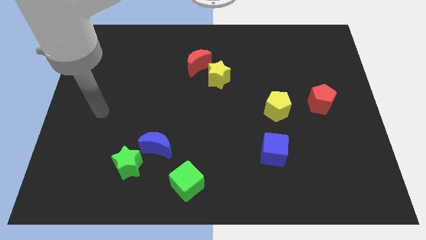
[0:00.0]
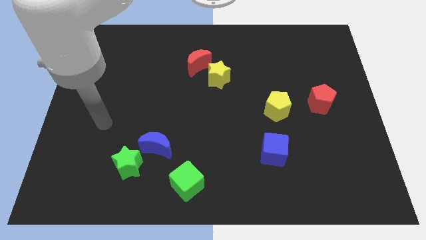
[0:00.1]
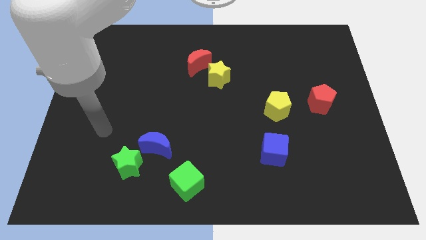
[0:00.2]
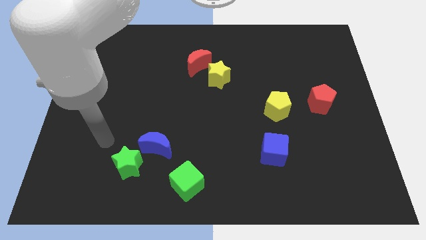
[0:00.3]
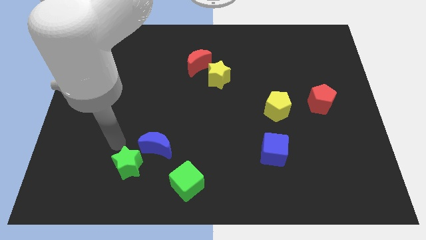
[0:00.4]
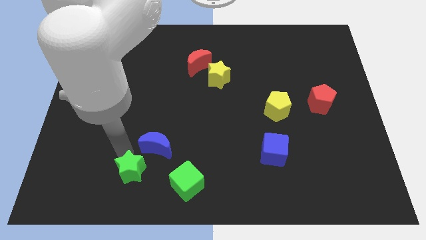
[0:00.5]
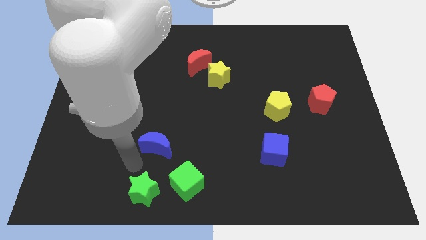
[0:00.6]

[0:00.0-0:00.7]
move the blue moon away from the green star

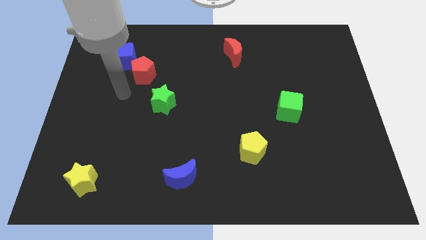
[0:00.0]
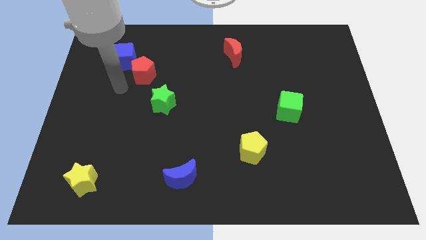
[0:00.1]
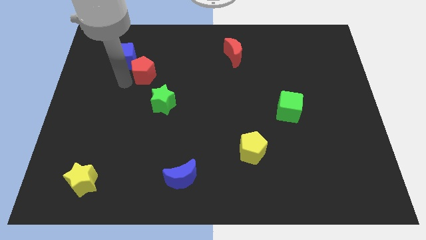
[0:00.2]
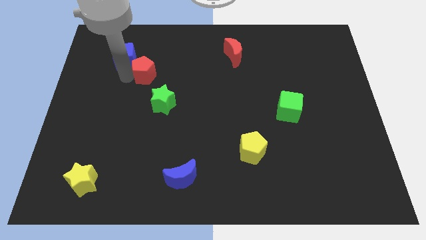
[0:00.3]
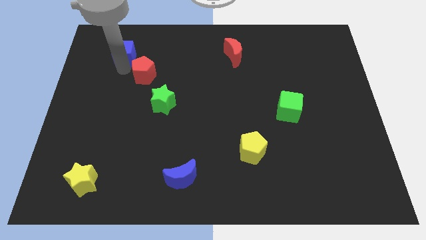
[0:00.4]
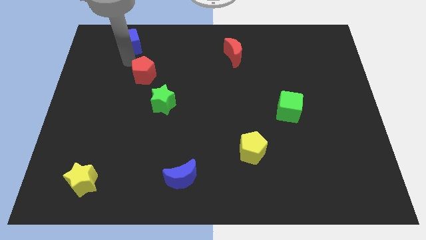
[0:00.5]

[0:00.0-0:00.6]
pull the red pentagon apart from the blue cube

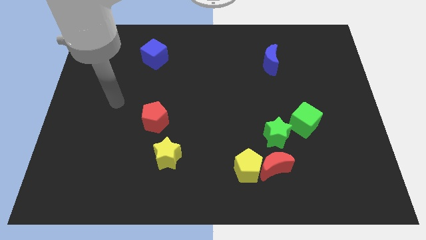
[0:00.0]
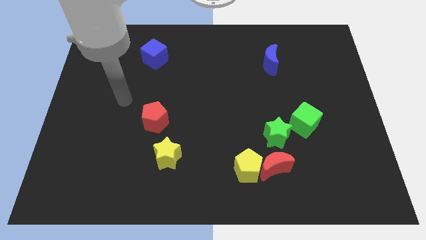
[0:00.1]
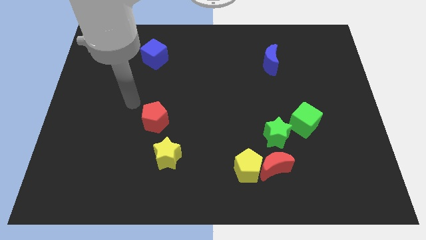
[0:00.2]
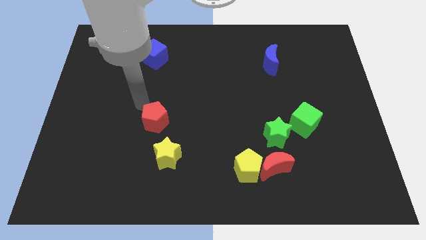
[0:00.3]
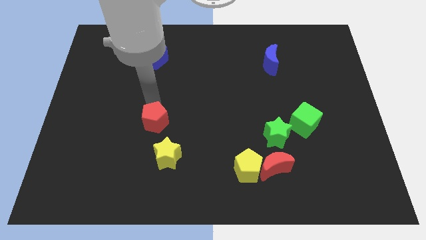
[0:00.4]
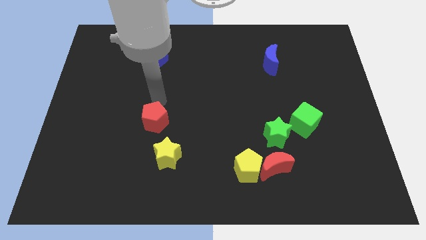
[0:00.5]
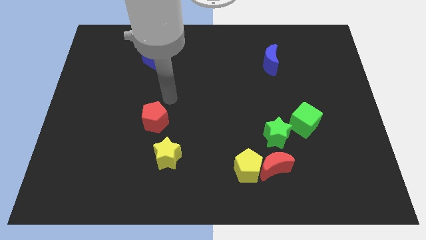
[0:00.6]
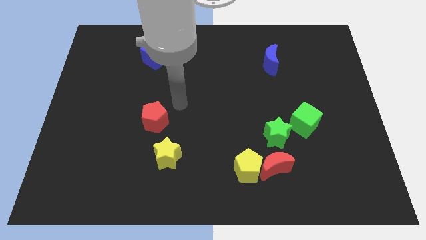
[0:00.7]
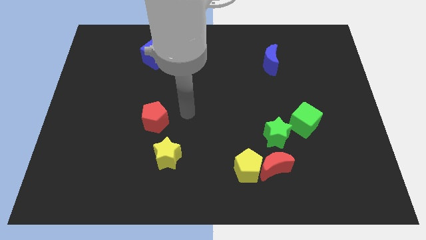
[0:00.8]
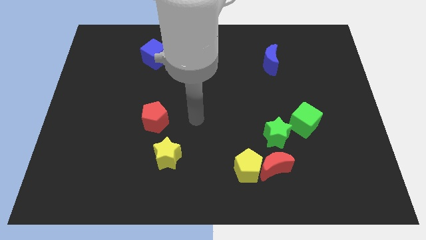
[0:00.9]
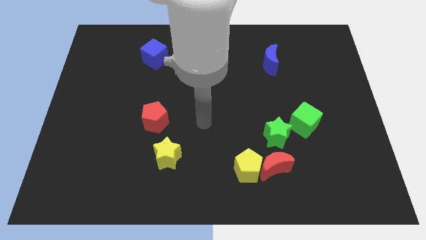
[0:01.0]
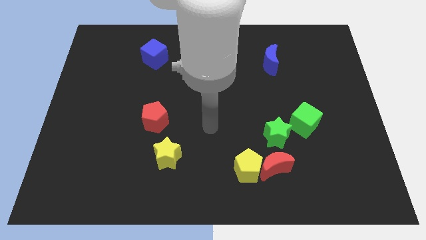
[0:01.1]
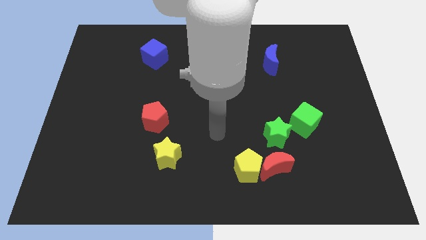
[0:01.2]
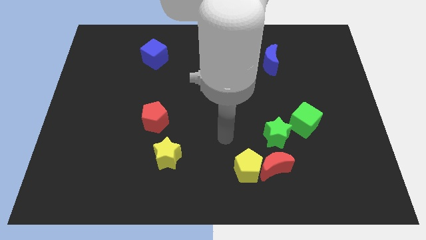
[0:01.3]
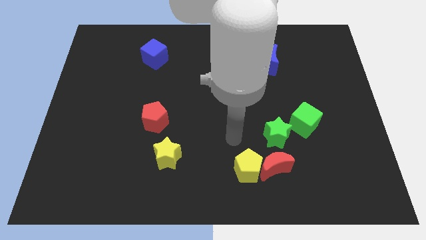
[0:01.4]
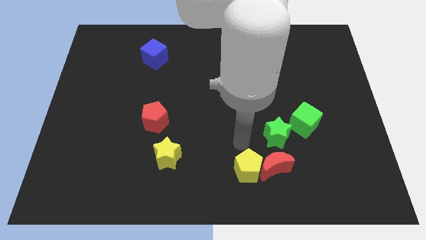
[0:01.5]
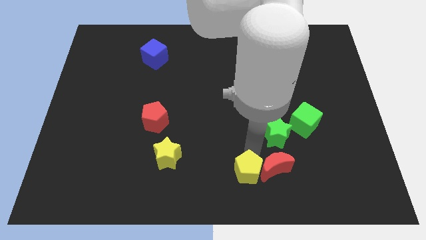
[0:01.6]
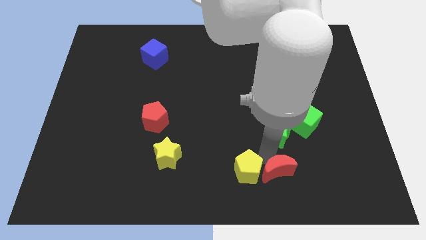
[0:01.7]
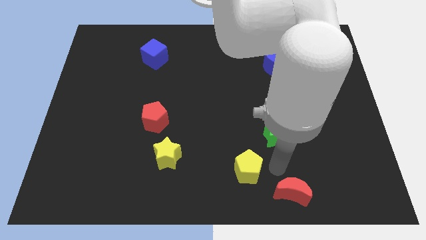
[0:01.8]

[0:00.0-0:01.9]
pull the yellow pentagon apart from the red moon

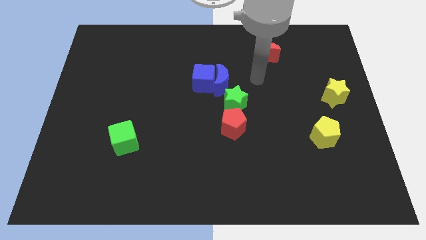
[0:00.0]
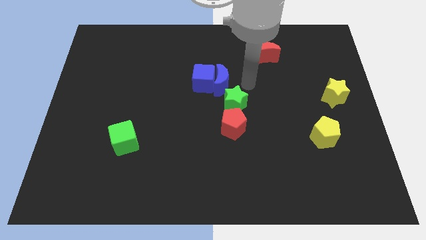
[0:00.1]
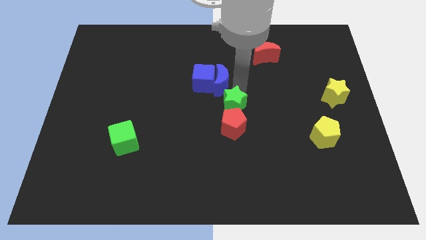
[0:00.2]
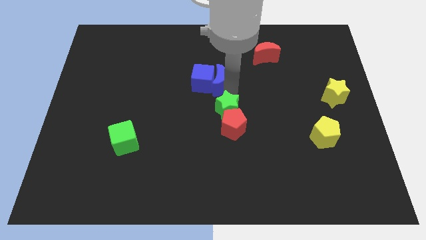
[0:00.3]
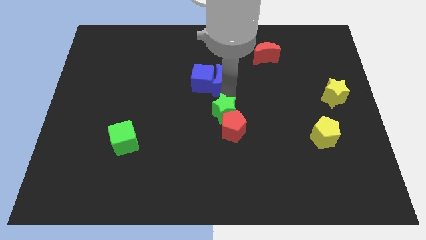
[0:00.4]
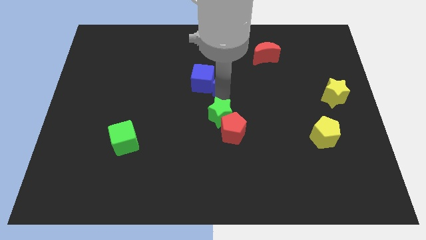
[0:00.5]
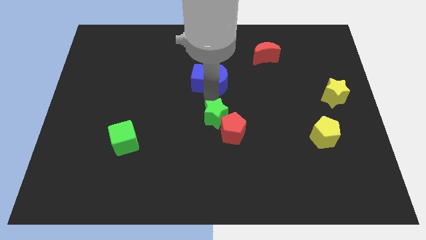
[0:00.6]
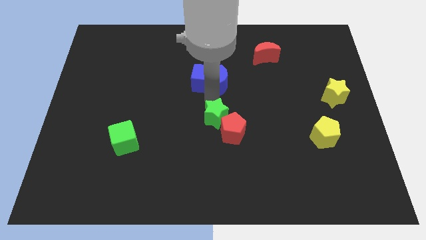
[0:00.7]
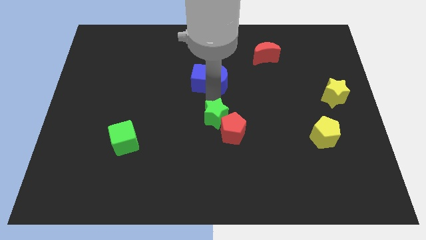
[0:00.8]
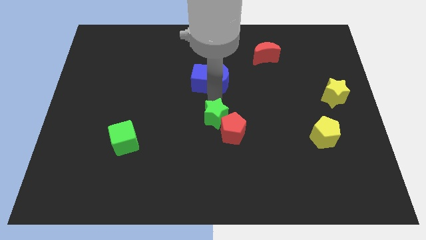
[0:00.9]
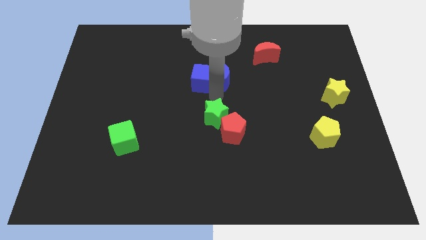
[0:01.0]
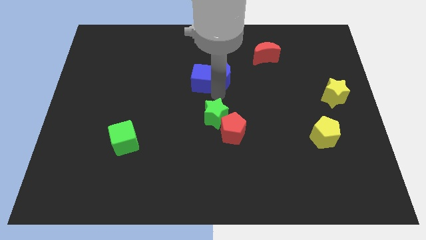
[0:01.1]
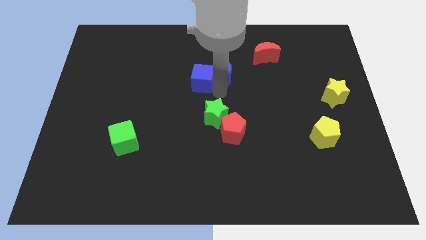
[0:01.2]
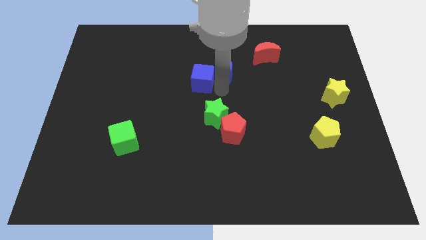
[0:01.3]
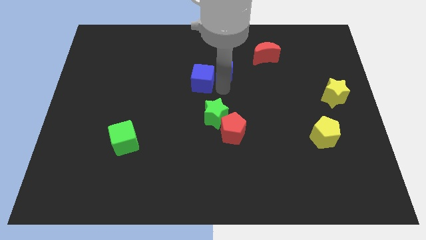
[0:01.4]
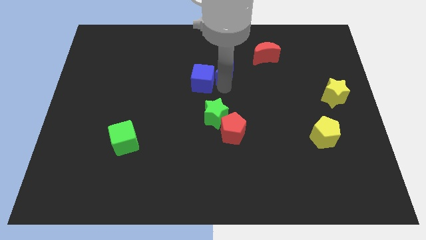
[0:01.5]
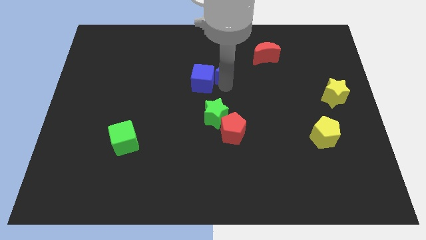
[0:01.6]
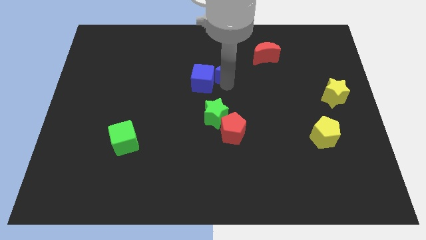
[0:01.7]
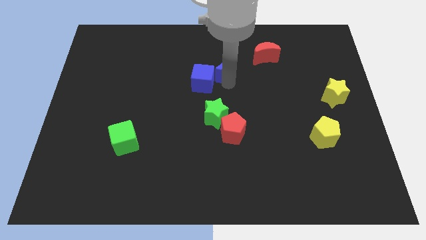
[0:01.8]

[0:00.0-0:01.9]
separate the blue moon from the blue cube and green star

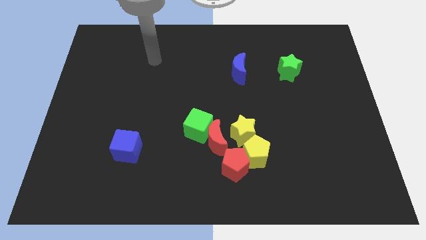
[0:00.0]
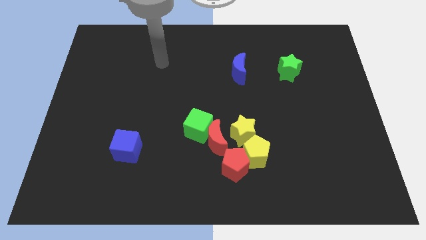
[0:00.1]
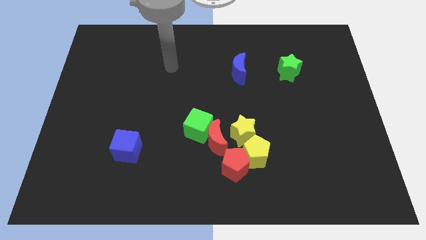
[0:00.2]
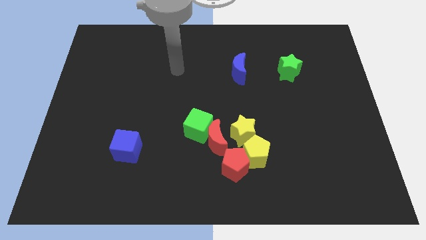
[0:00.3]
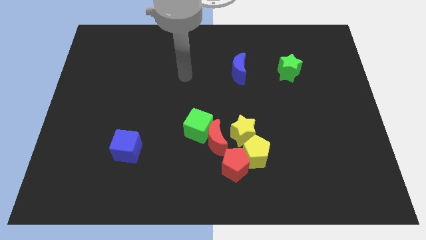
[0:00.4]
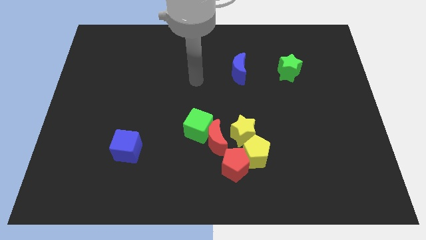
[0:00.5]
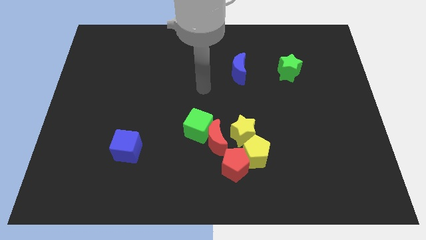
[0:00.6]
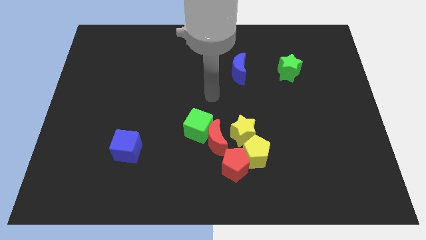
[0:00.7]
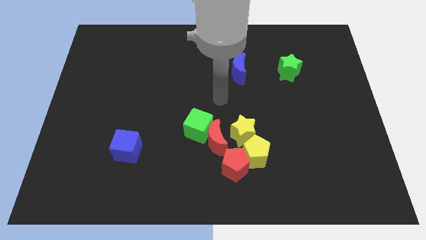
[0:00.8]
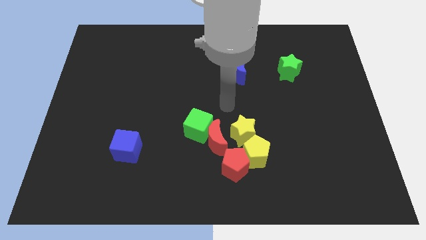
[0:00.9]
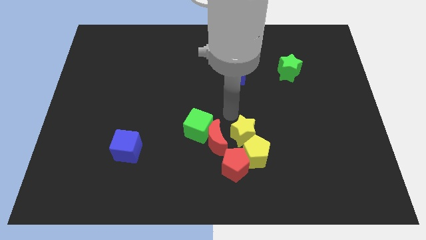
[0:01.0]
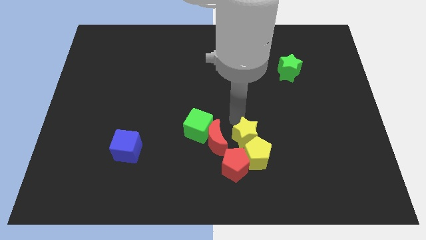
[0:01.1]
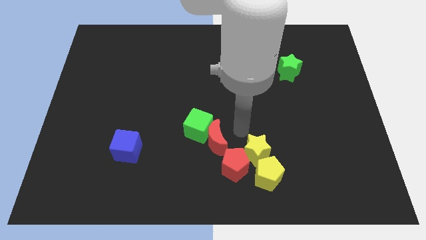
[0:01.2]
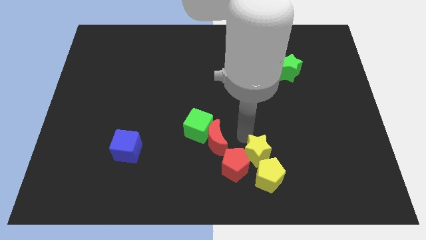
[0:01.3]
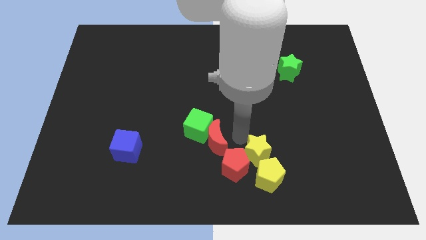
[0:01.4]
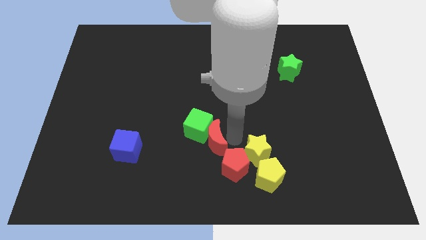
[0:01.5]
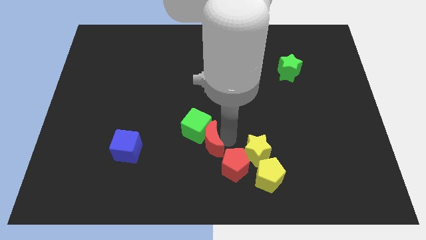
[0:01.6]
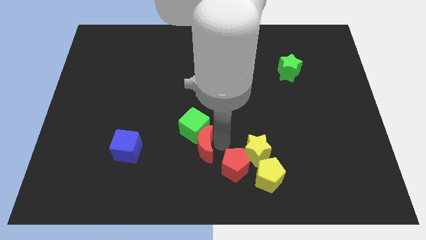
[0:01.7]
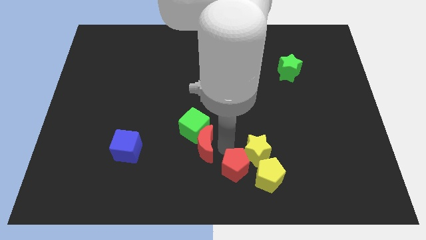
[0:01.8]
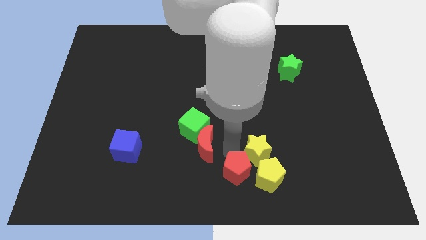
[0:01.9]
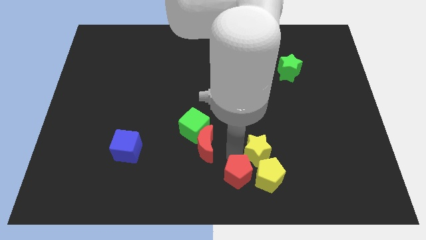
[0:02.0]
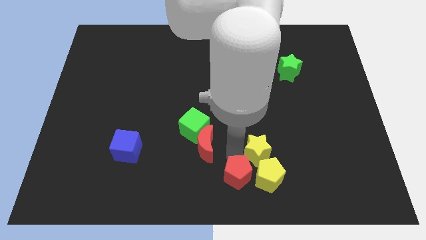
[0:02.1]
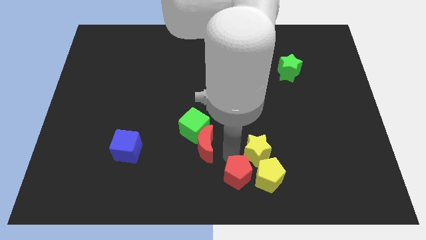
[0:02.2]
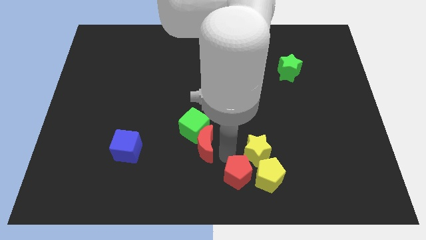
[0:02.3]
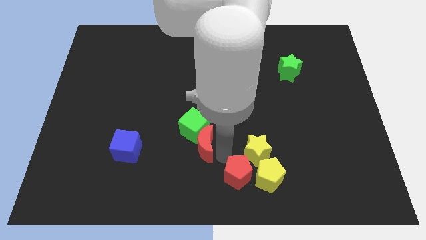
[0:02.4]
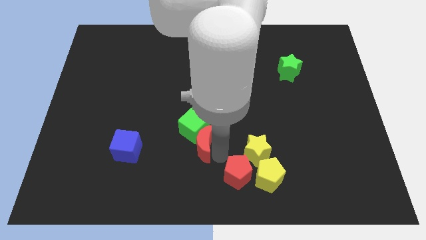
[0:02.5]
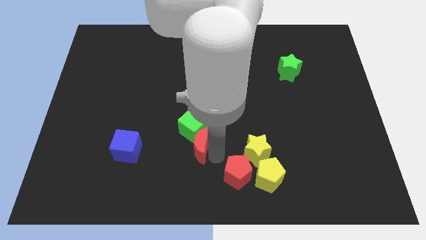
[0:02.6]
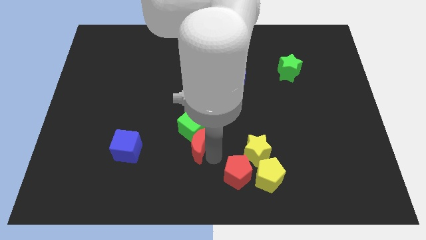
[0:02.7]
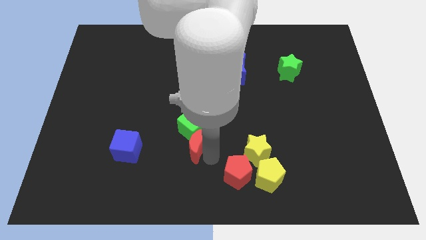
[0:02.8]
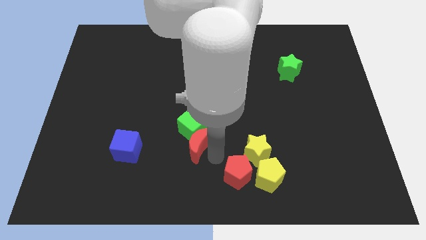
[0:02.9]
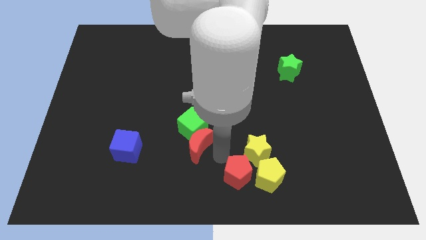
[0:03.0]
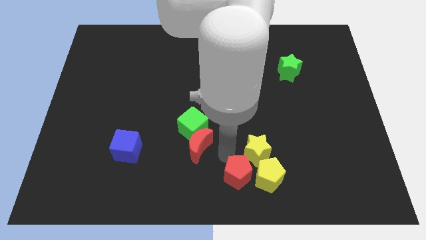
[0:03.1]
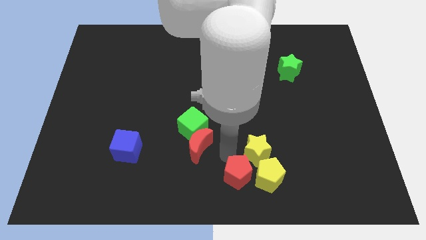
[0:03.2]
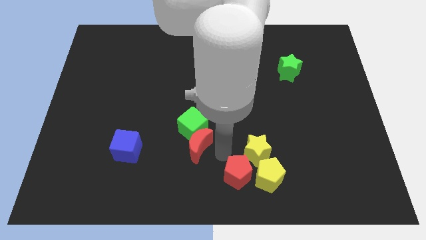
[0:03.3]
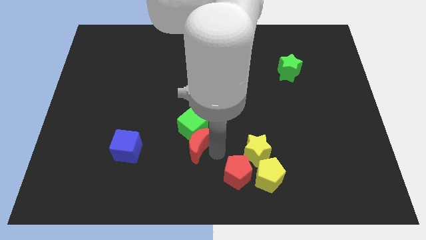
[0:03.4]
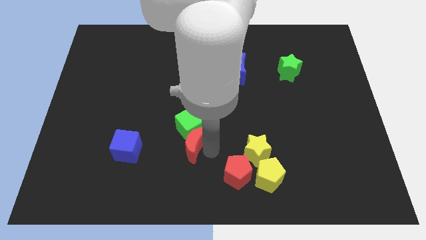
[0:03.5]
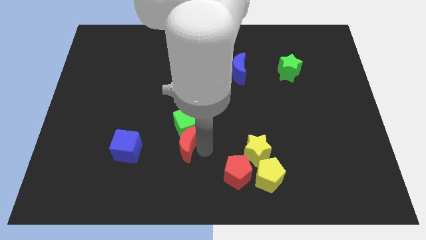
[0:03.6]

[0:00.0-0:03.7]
move the red moon away from the group

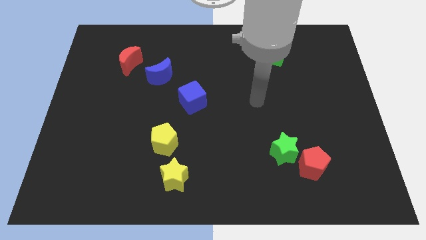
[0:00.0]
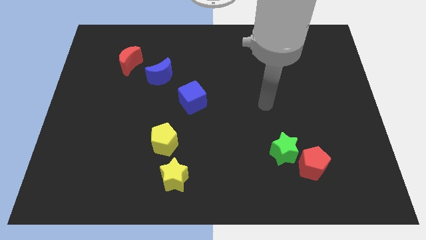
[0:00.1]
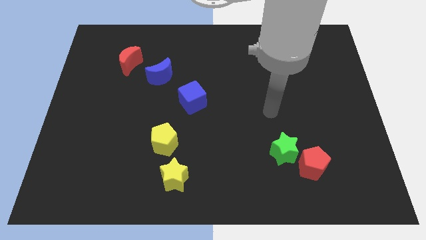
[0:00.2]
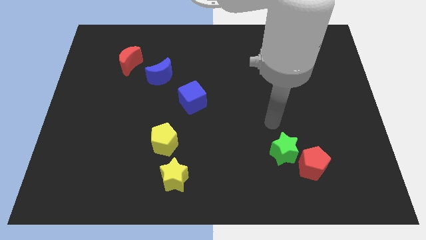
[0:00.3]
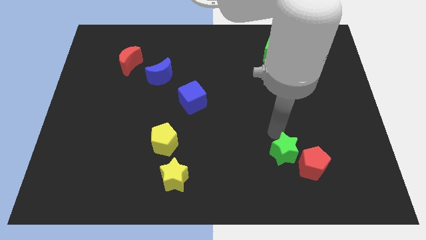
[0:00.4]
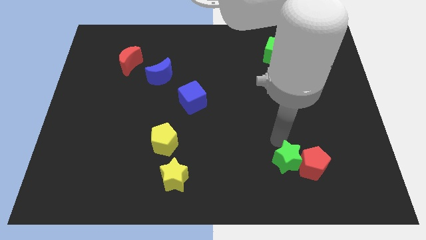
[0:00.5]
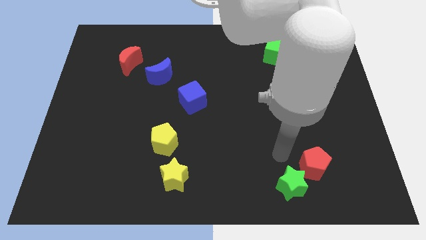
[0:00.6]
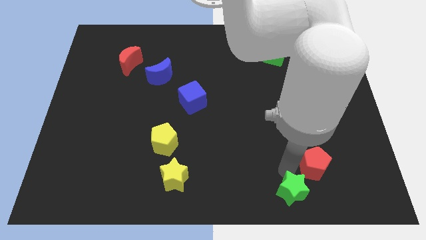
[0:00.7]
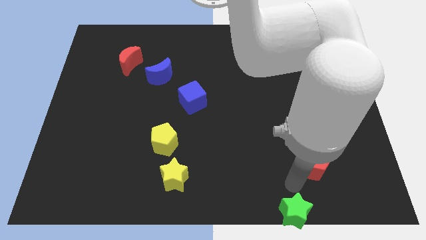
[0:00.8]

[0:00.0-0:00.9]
move the red pentagon away from the green star
